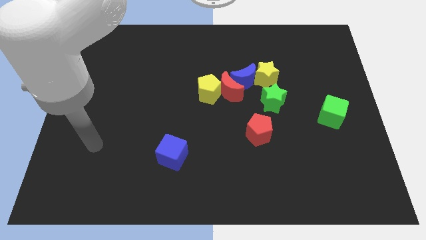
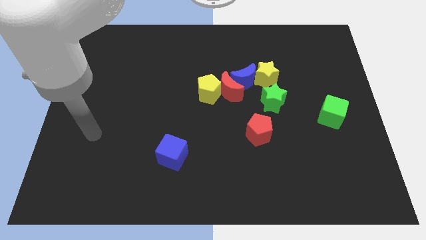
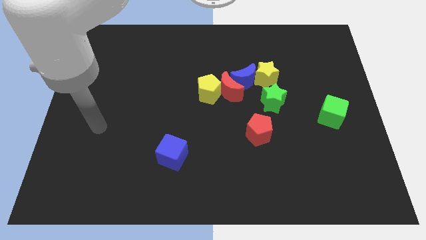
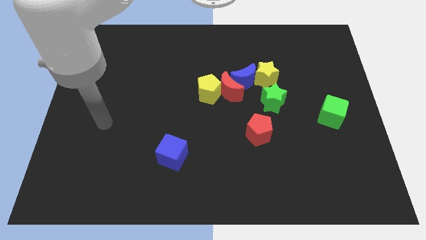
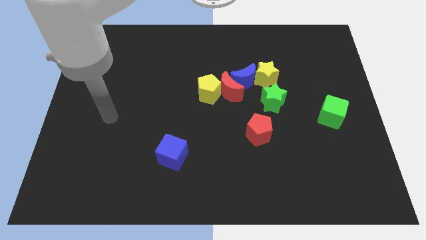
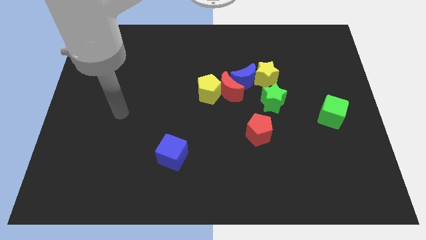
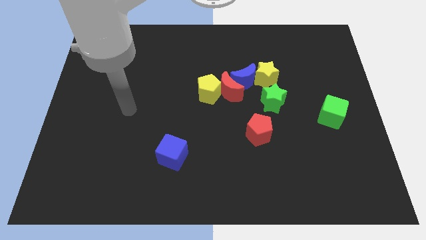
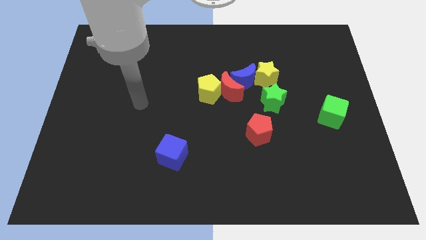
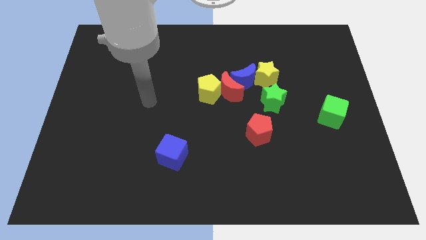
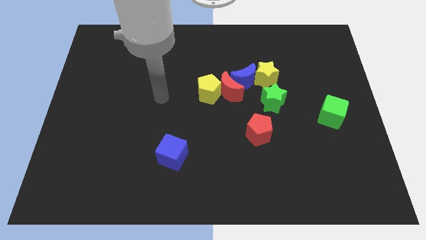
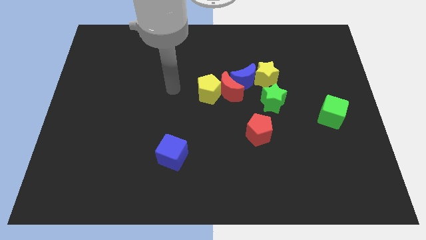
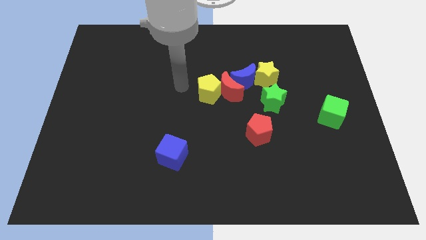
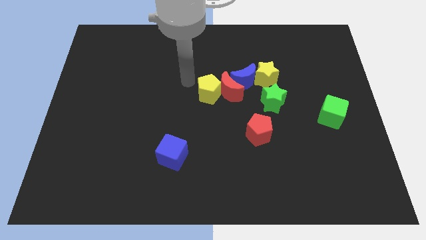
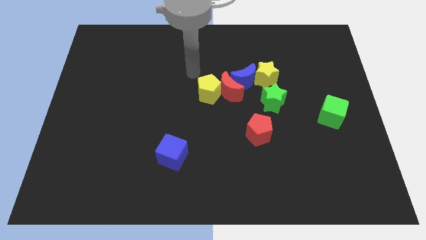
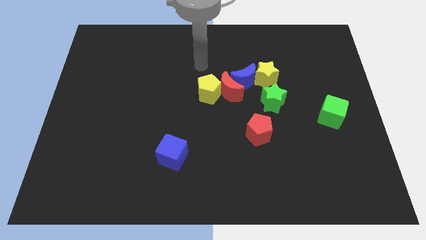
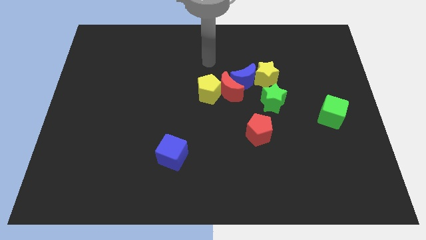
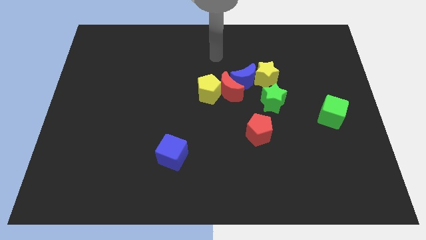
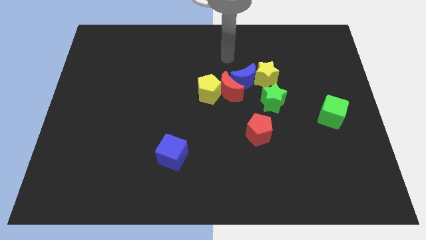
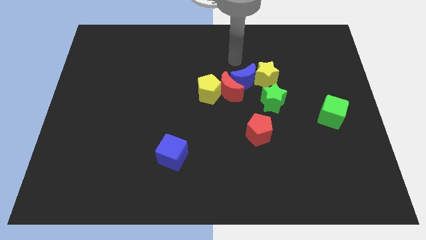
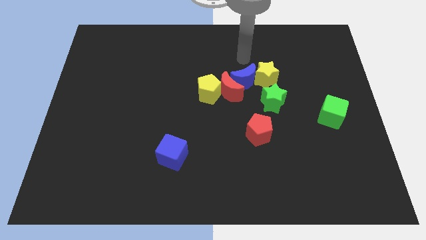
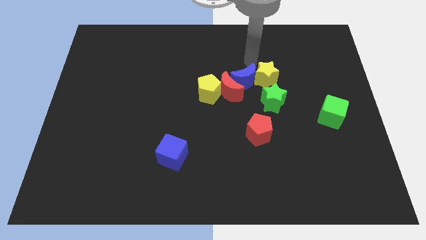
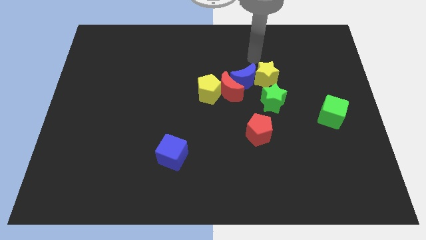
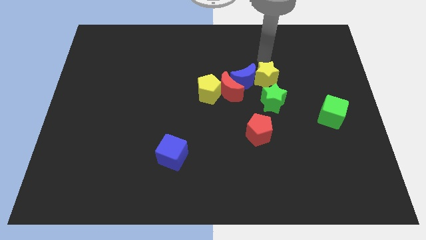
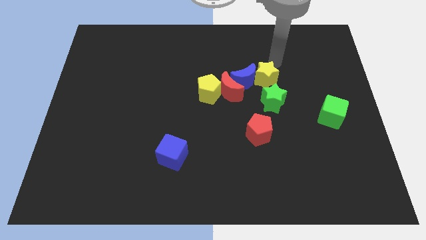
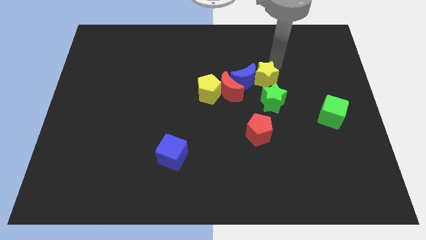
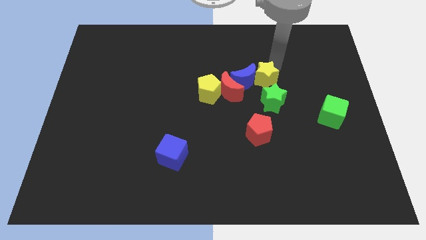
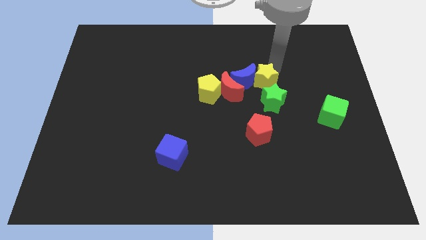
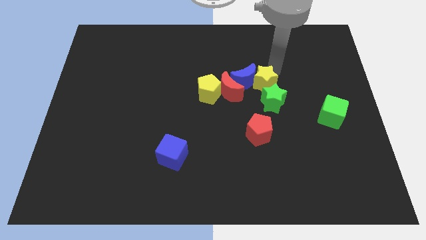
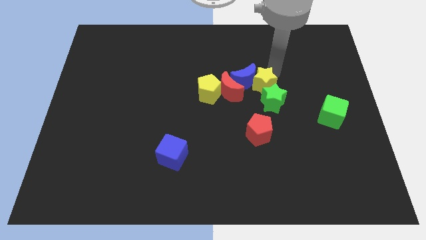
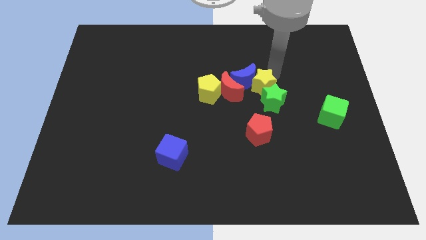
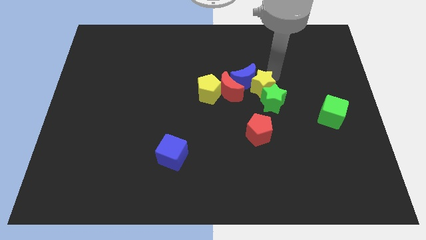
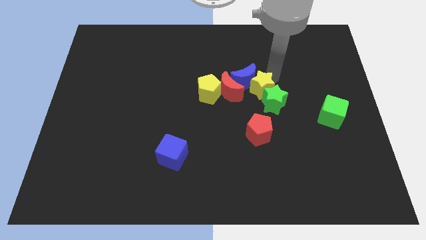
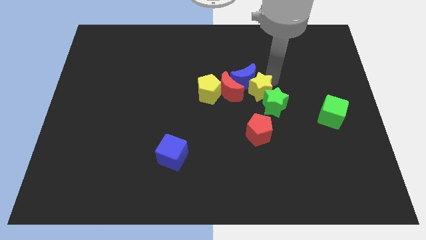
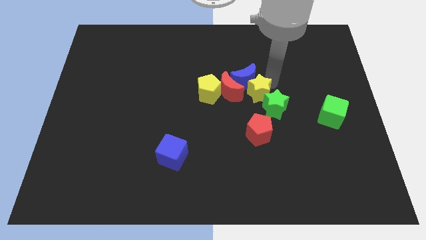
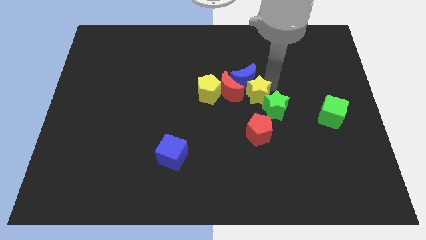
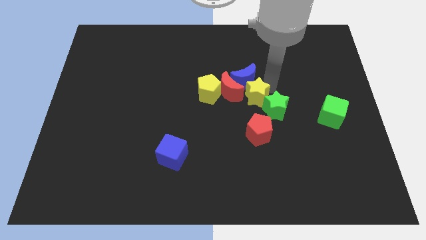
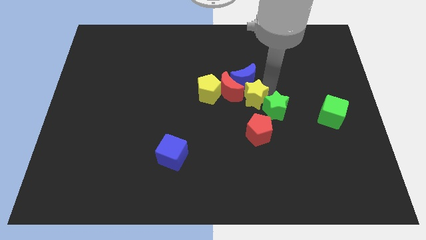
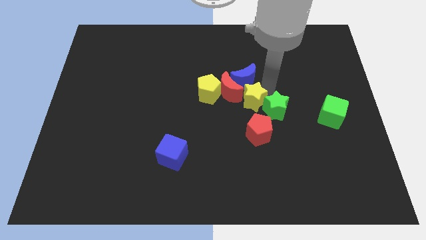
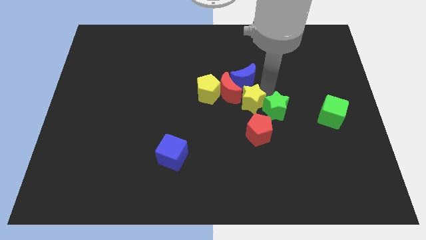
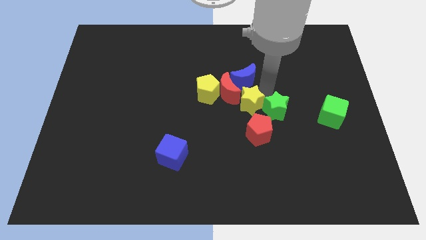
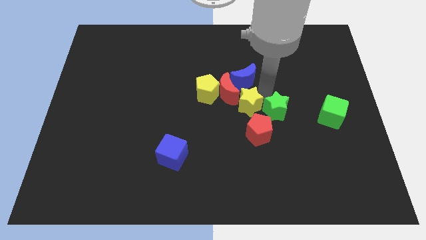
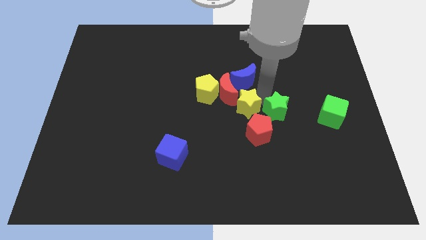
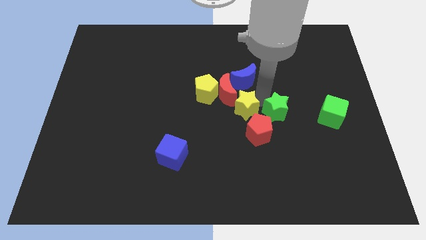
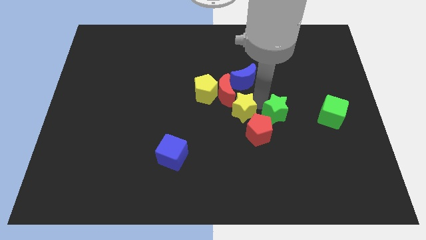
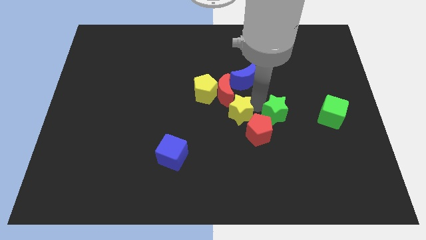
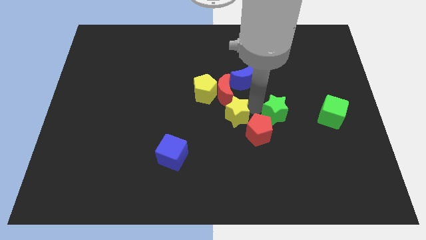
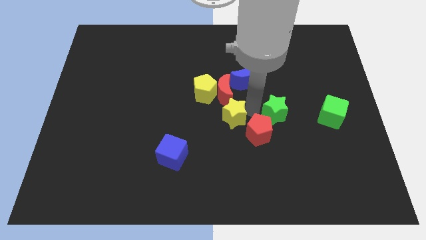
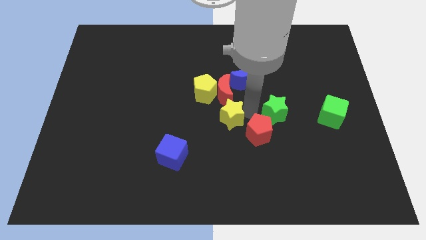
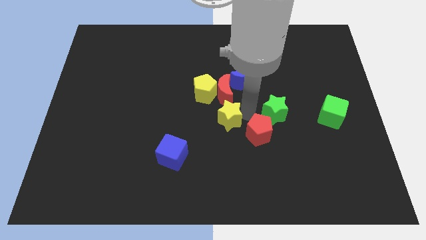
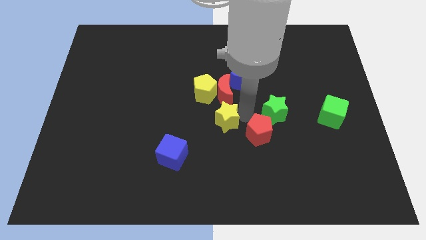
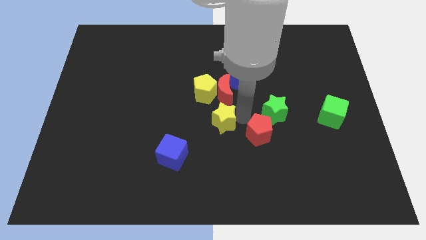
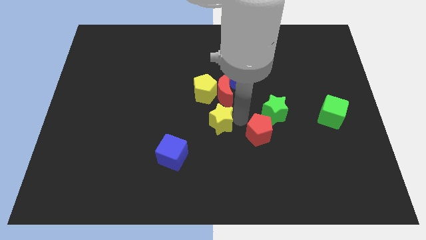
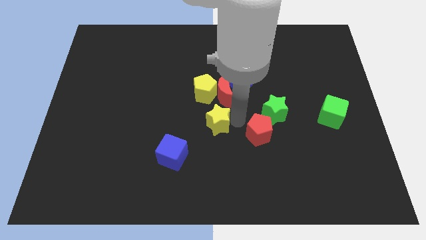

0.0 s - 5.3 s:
put the yellow star diagonally down and to the left of the red moon

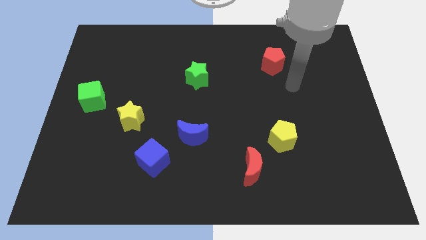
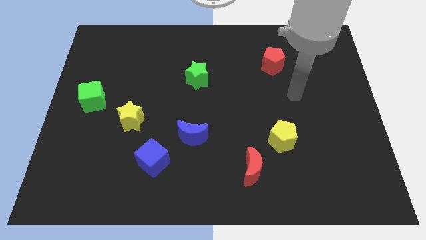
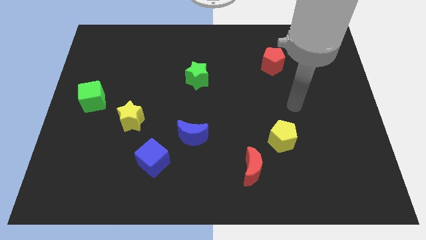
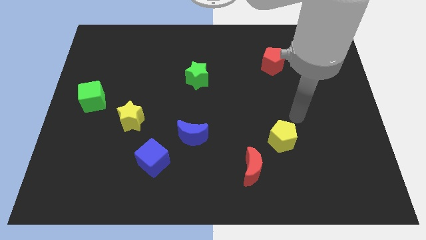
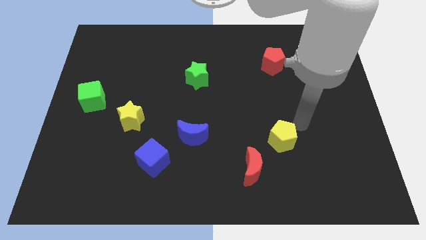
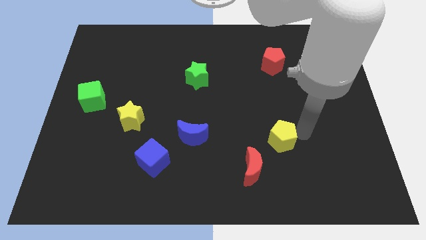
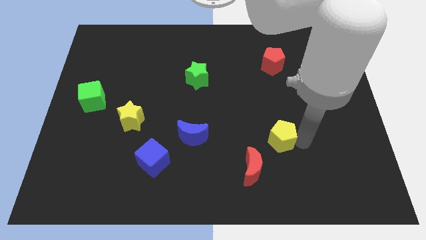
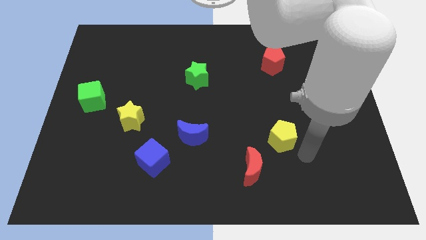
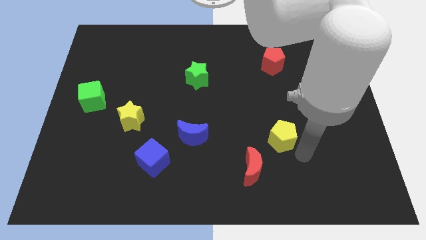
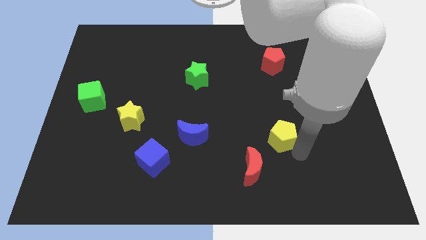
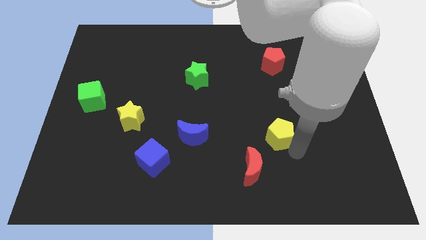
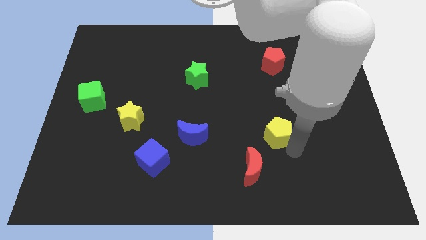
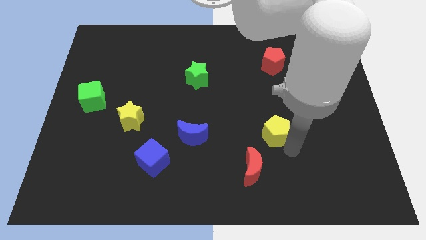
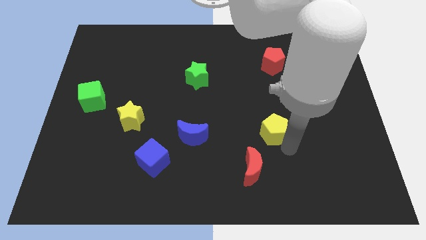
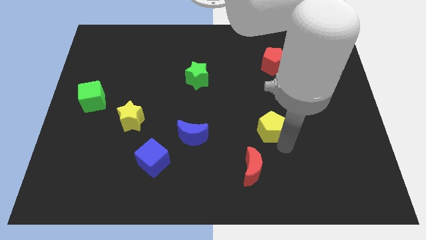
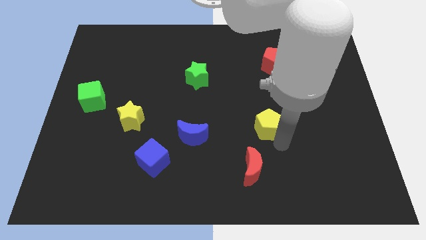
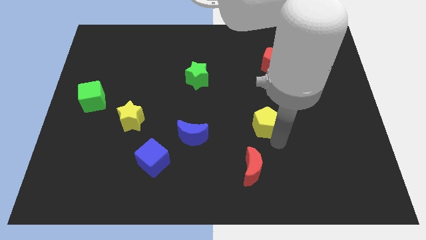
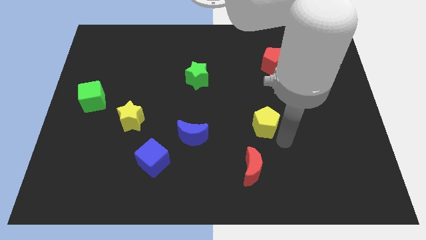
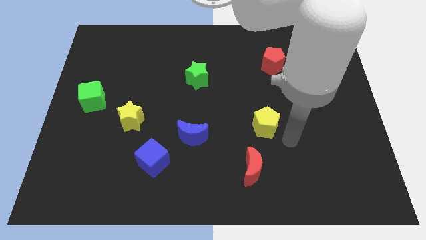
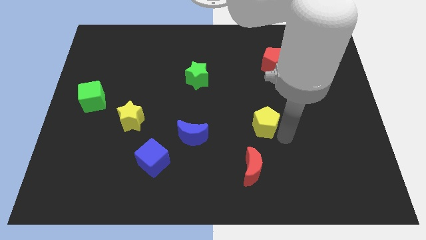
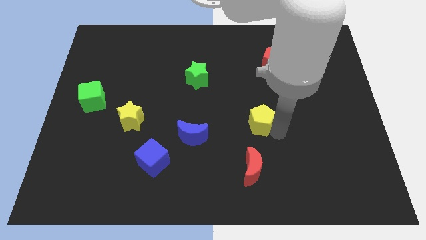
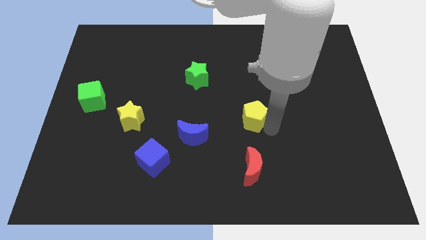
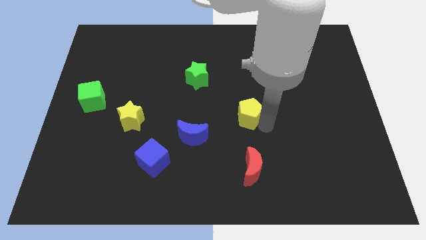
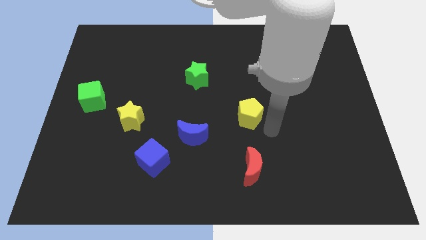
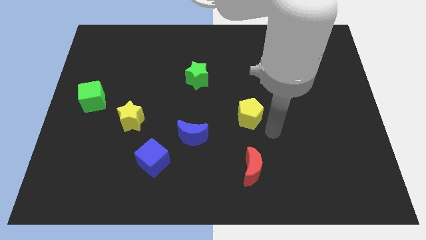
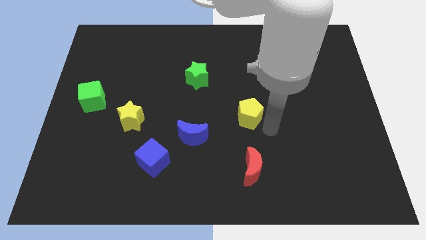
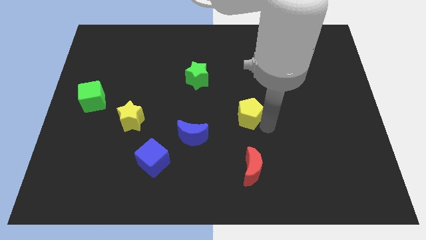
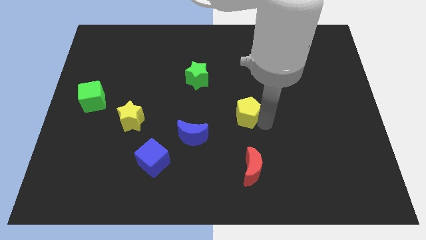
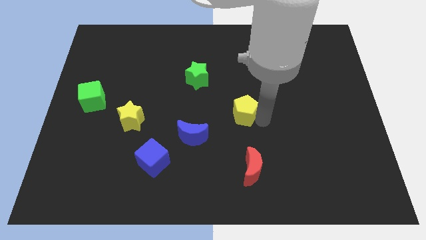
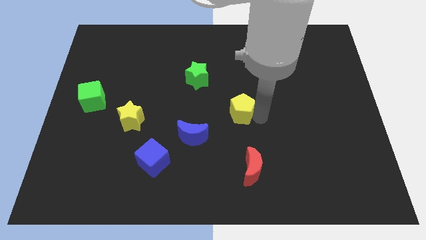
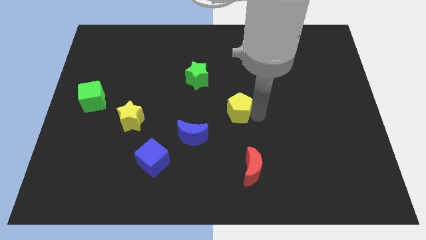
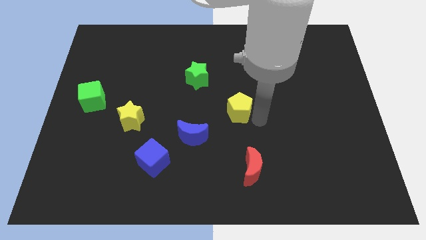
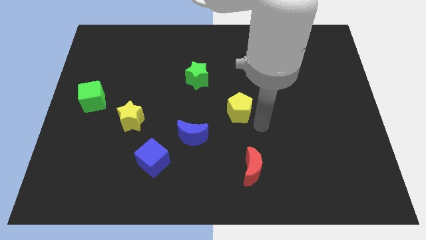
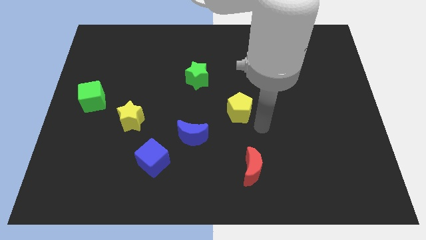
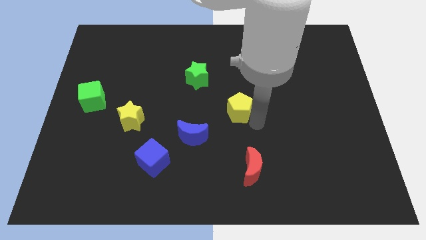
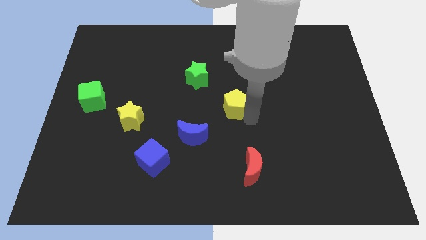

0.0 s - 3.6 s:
slide the yellow pentagon to the bottom right of the green star
